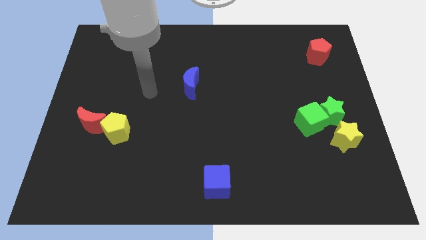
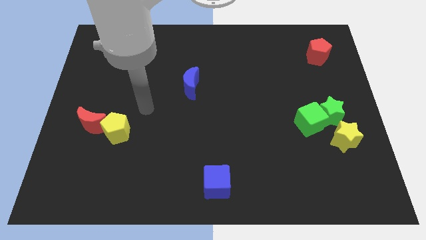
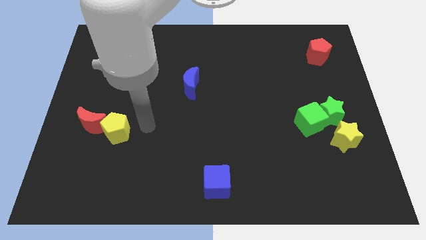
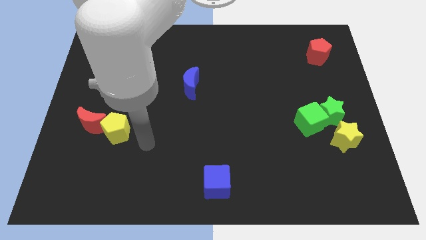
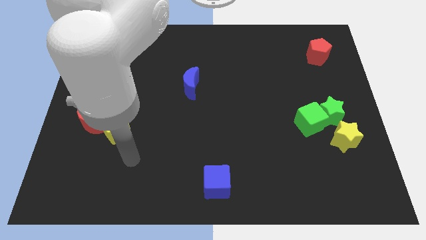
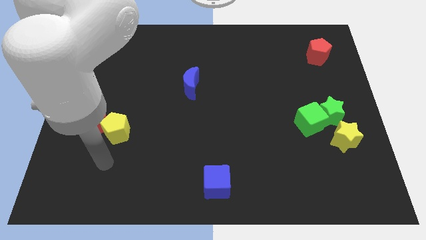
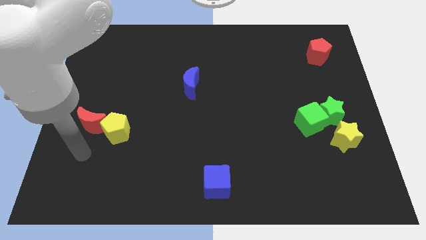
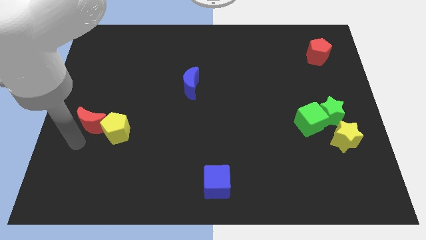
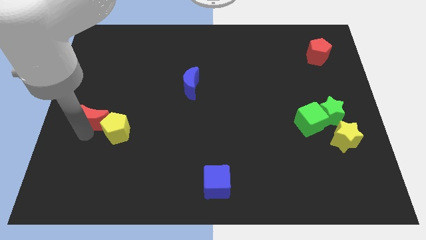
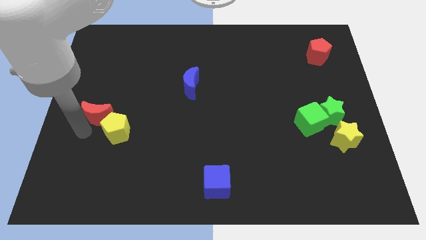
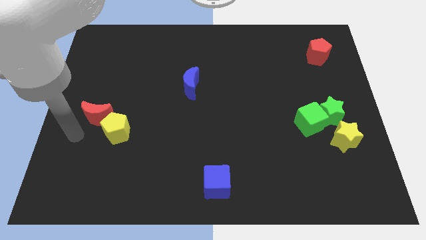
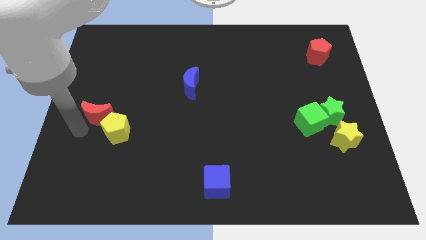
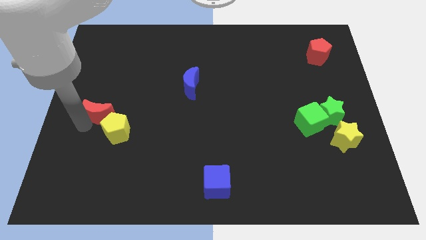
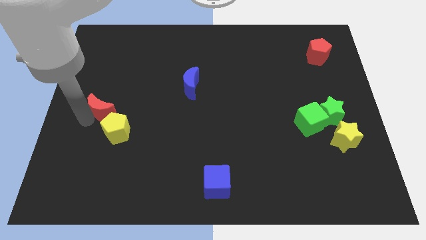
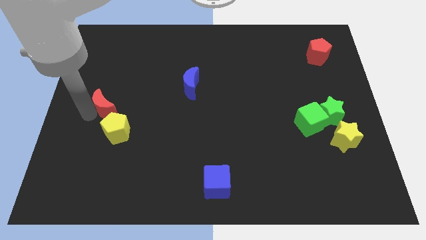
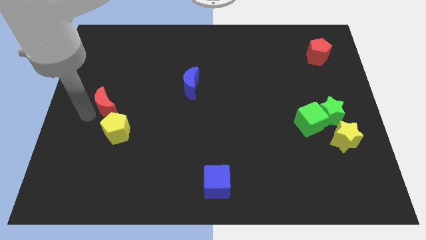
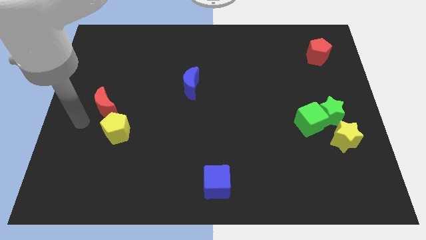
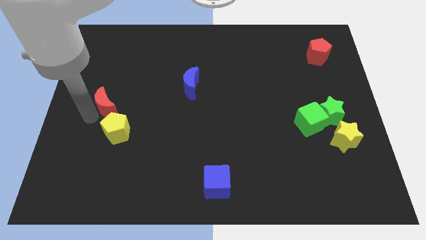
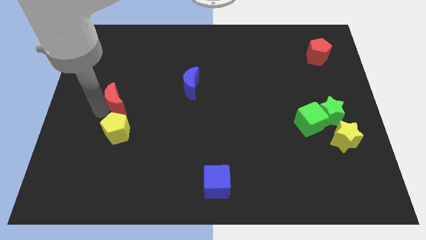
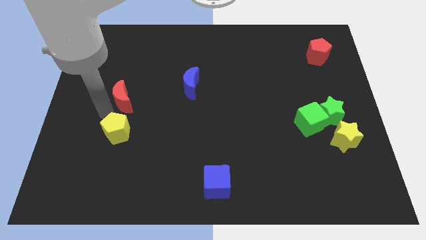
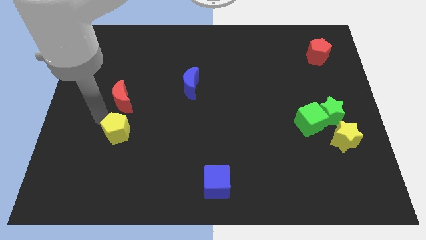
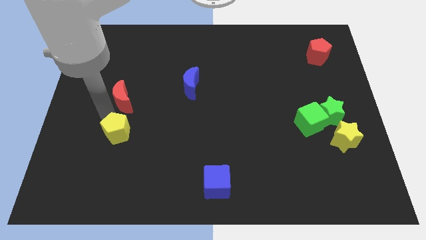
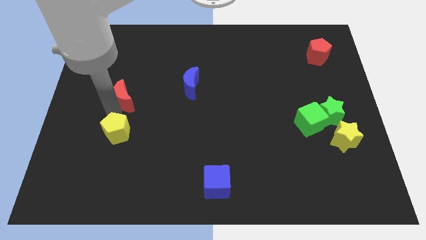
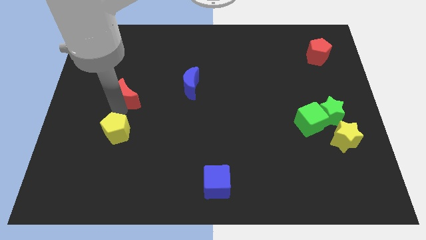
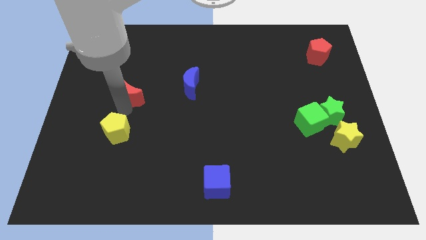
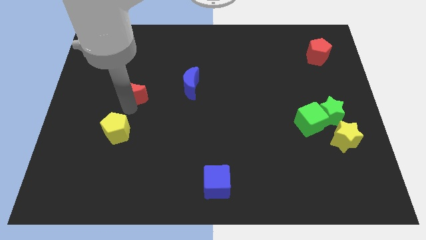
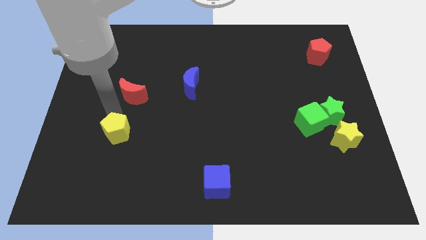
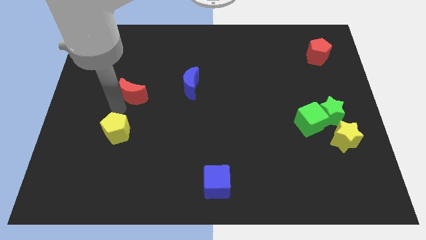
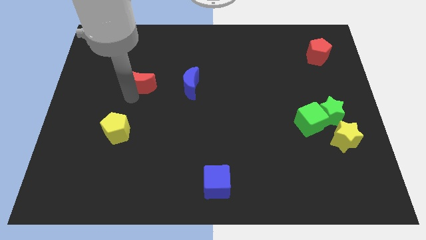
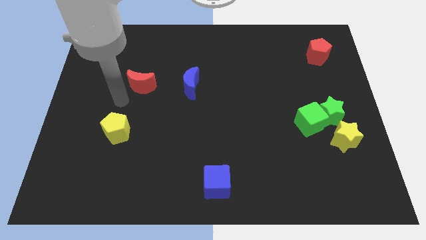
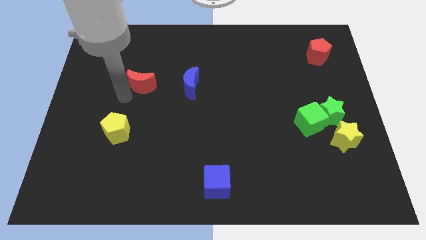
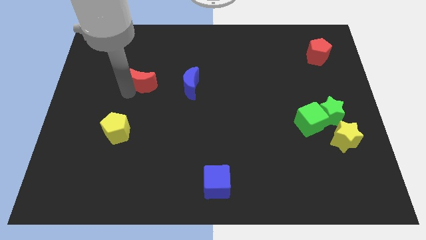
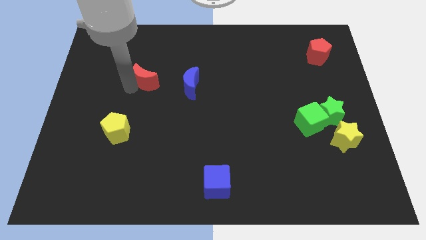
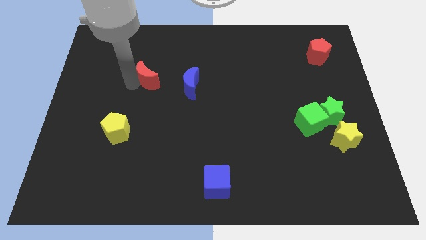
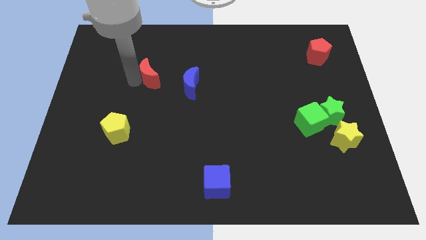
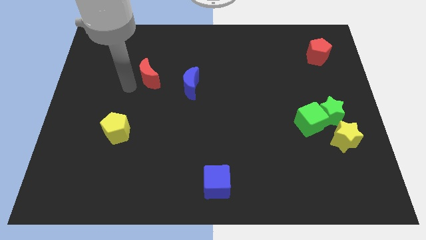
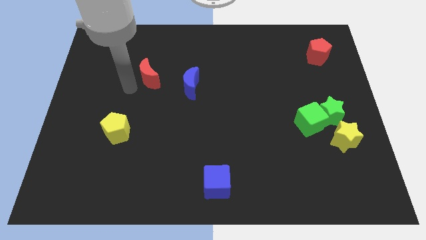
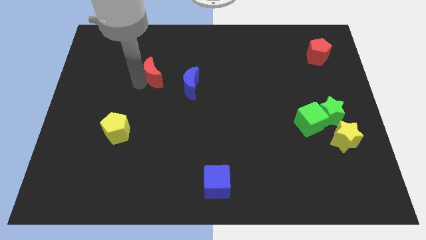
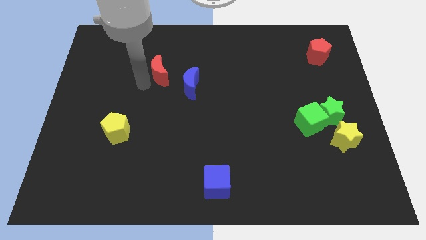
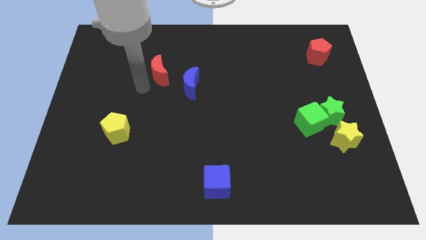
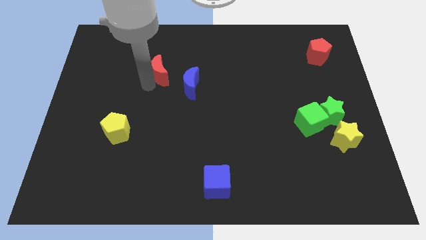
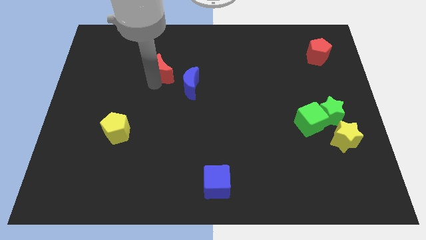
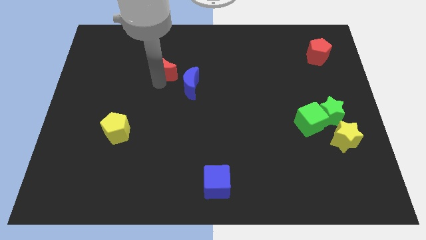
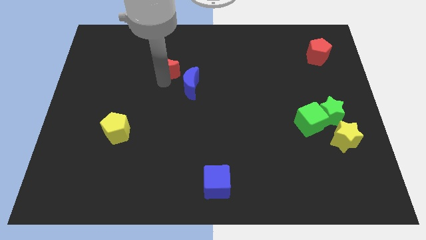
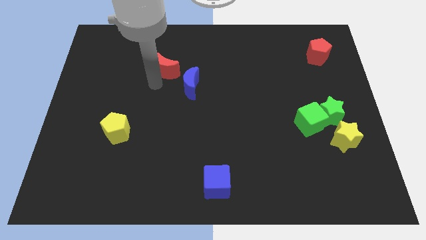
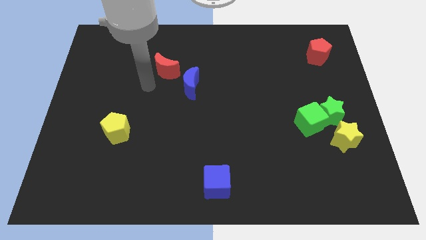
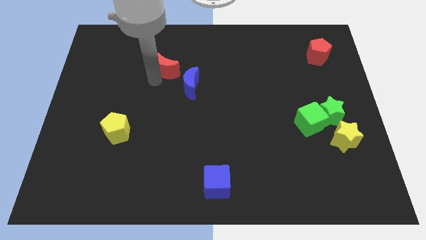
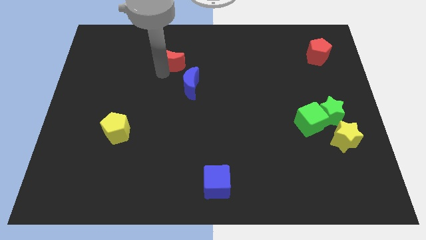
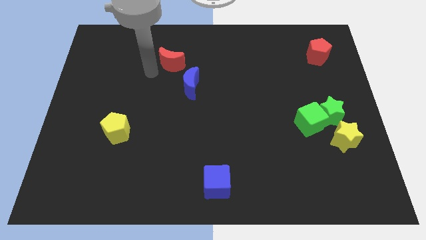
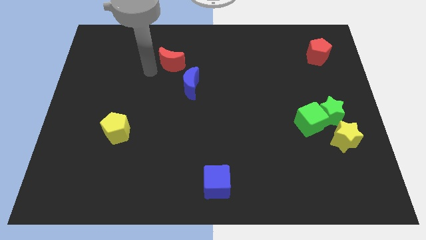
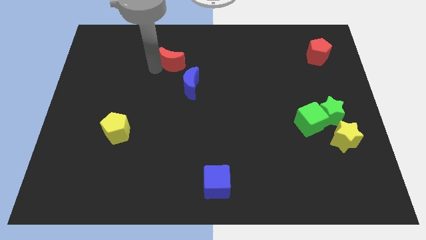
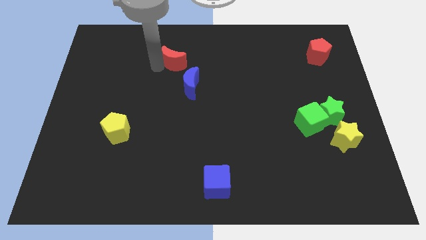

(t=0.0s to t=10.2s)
push the red moon to the top of the blue moon

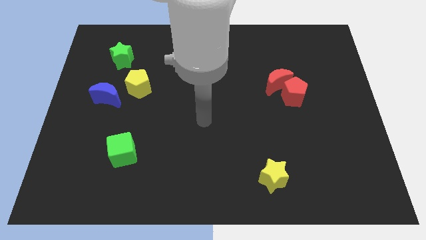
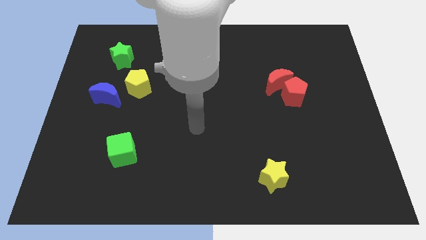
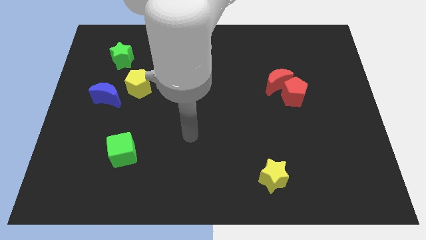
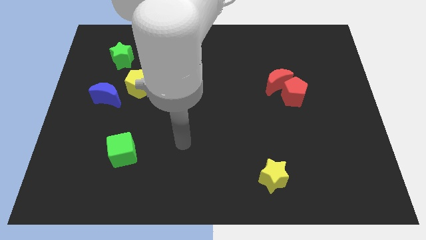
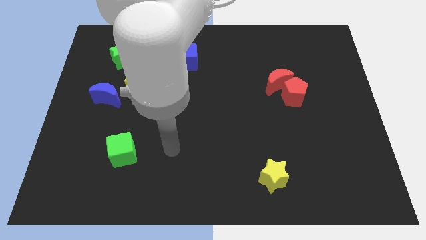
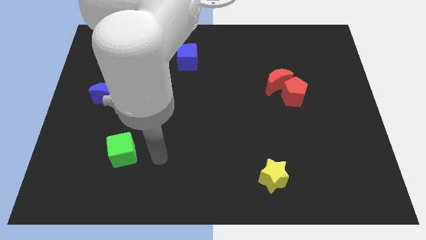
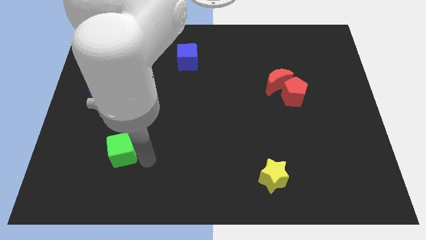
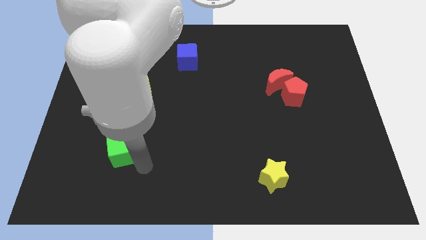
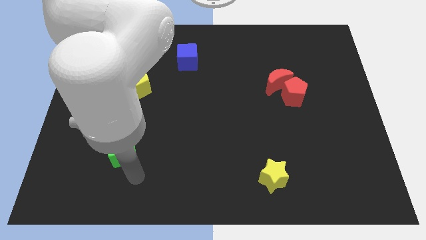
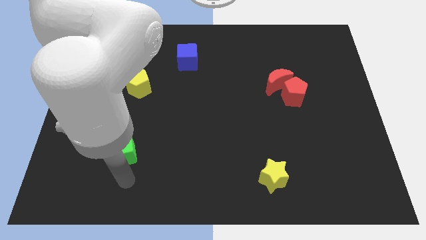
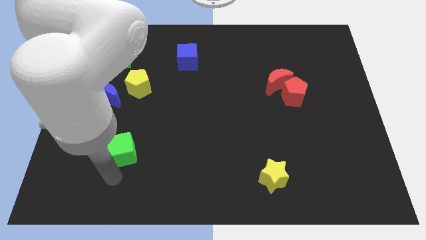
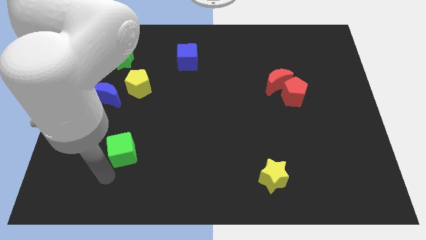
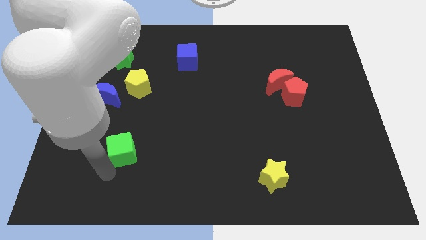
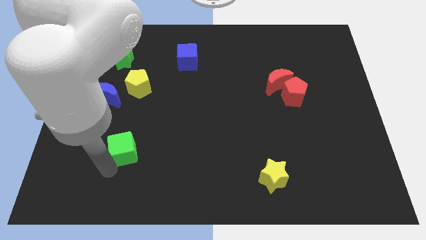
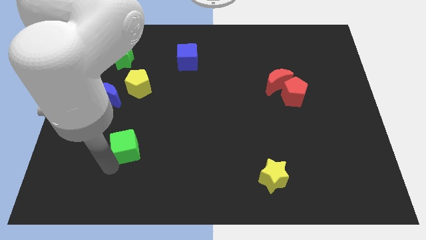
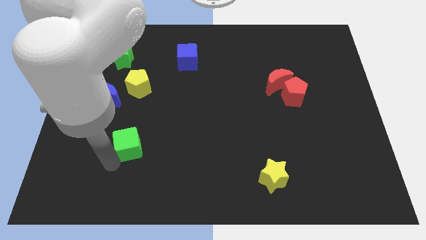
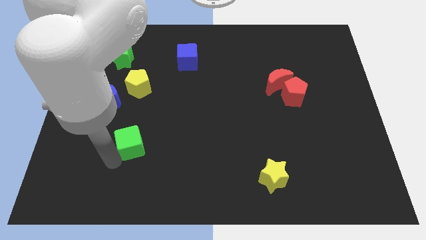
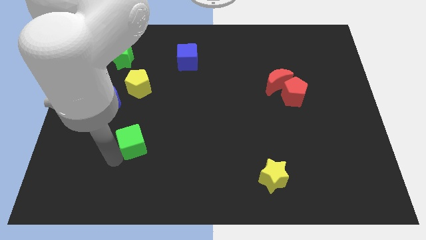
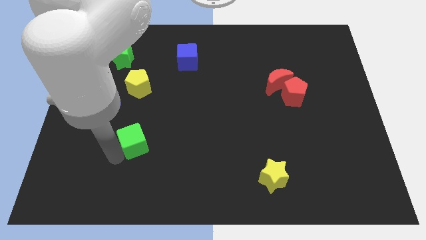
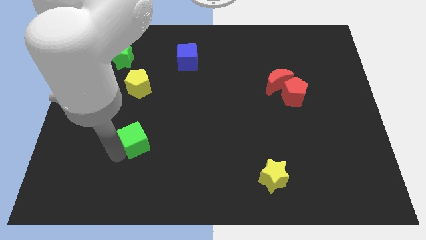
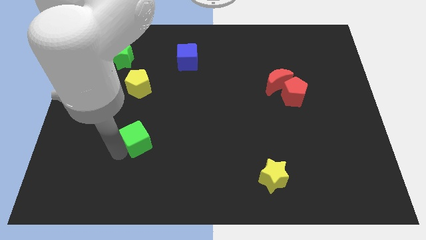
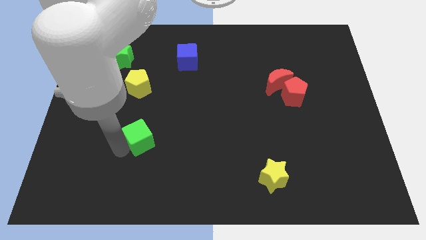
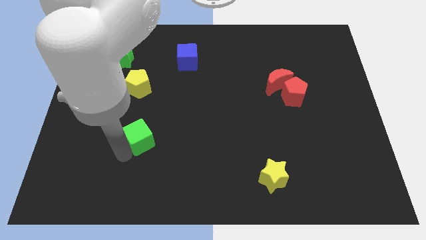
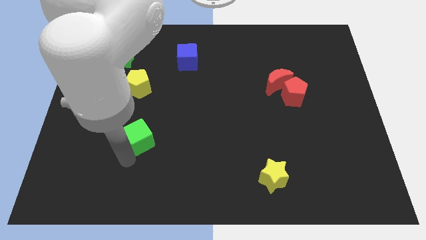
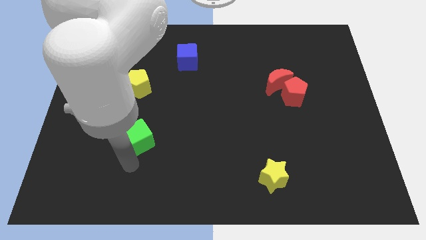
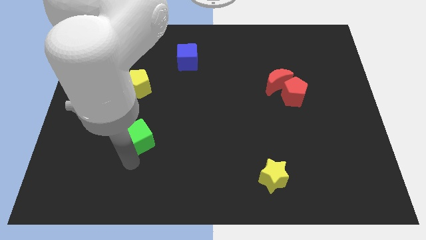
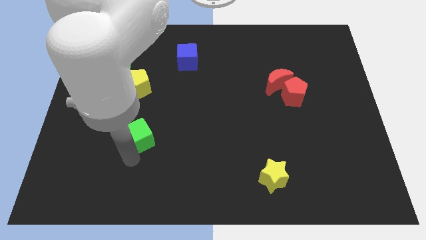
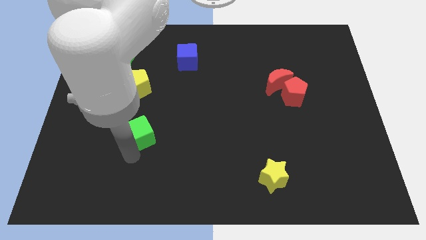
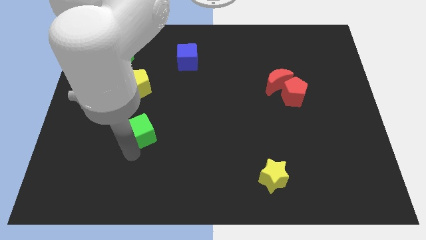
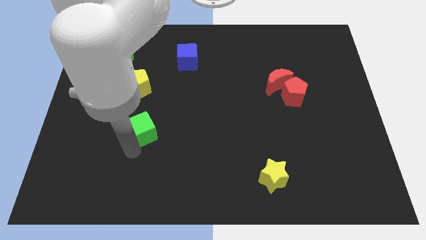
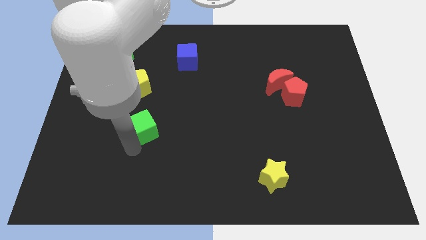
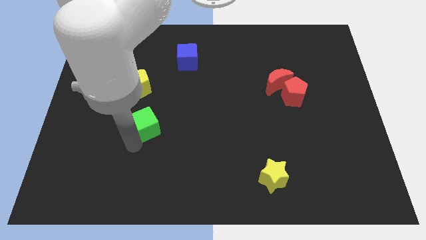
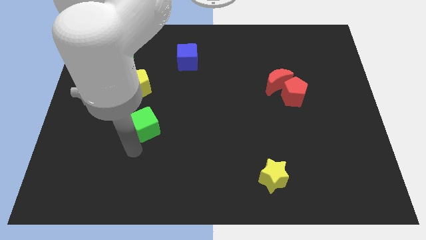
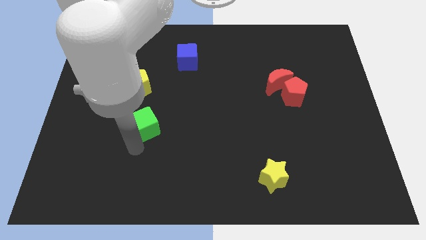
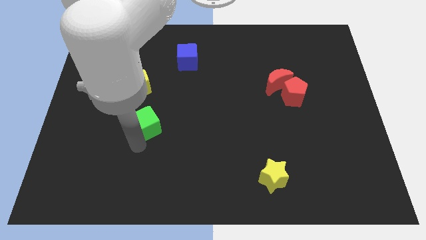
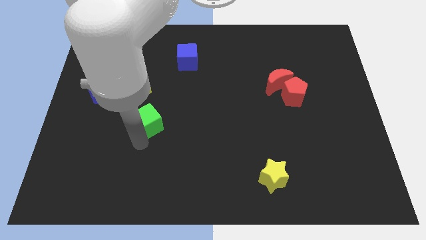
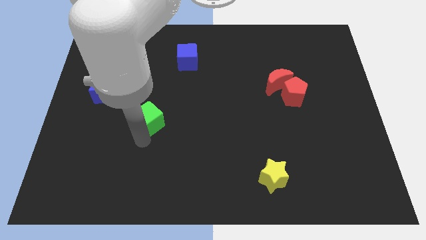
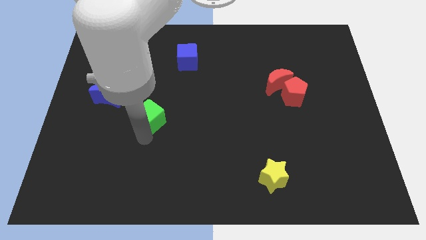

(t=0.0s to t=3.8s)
push the green cube diagonally down and to the right of the yellow pentagon
